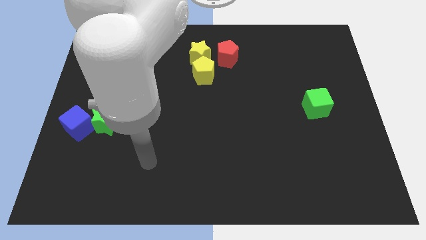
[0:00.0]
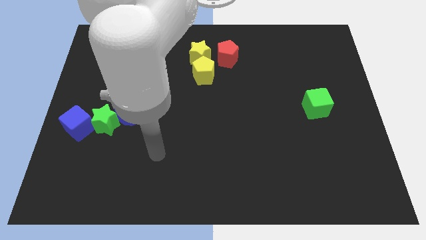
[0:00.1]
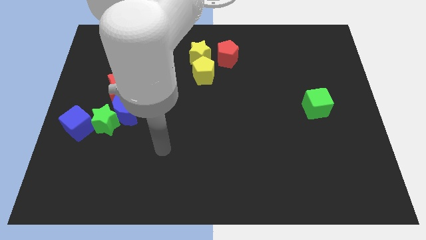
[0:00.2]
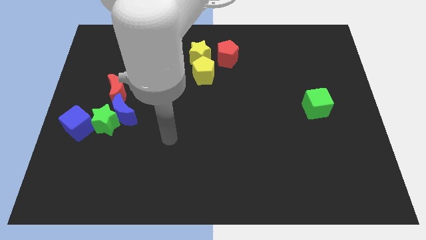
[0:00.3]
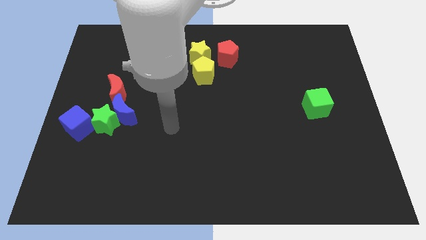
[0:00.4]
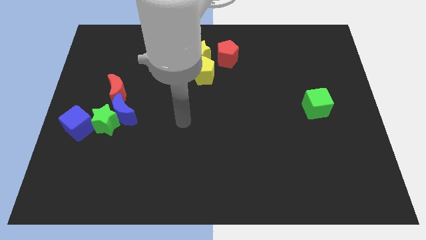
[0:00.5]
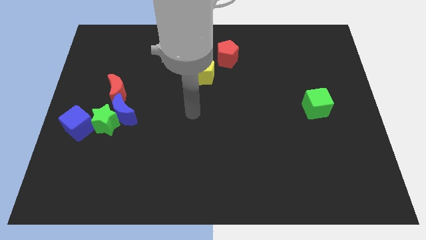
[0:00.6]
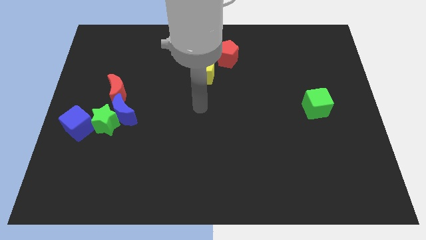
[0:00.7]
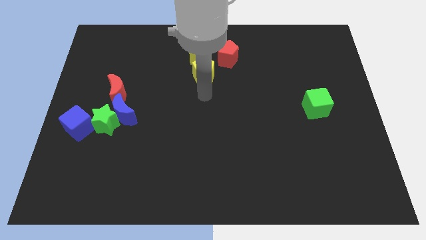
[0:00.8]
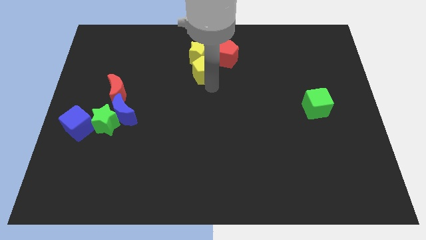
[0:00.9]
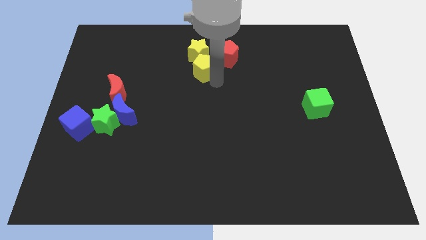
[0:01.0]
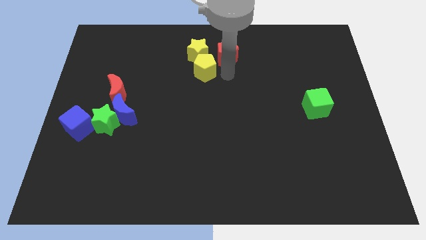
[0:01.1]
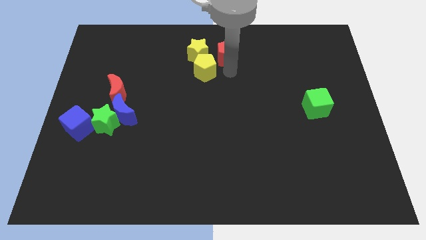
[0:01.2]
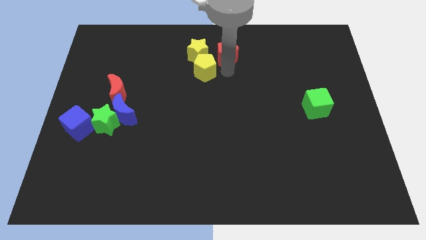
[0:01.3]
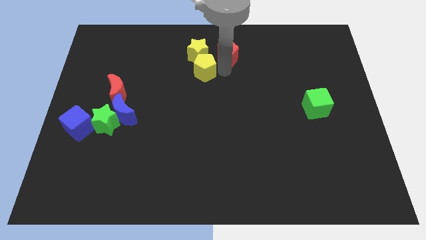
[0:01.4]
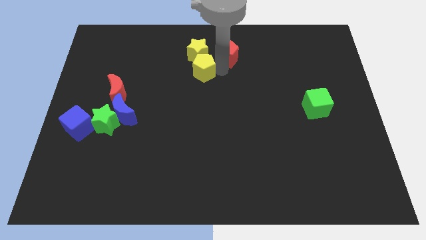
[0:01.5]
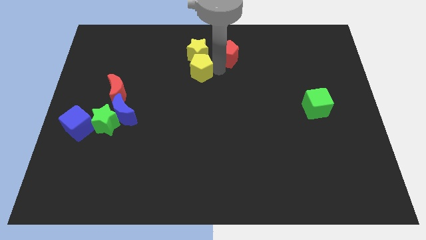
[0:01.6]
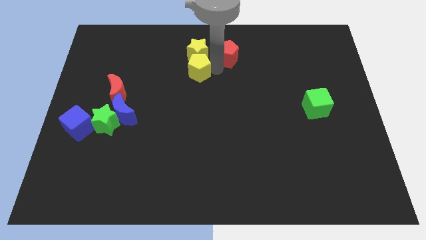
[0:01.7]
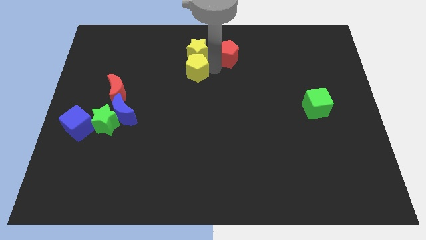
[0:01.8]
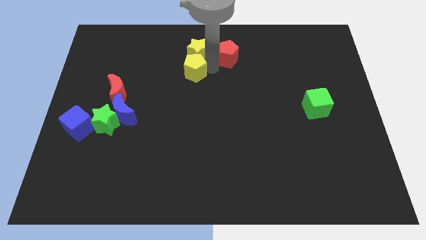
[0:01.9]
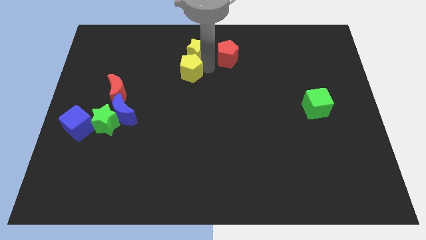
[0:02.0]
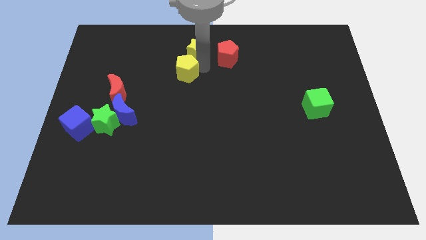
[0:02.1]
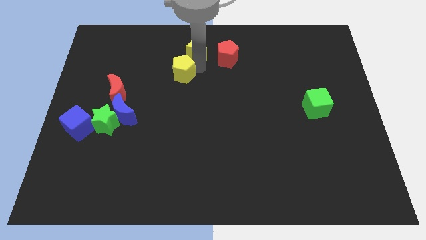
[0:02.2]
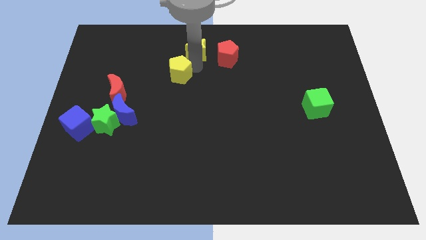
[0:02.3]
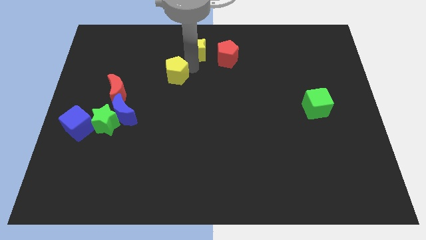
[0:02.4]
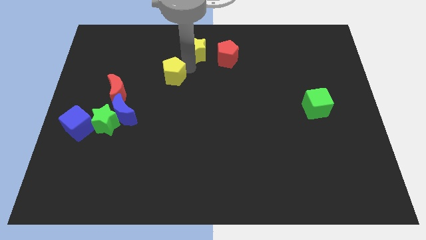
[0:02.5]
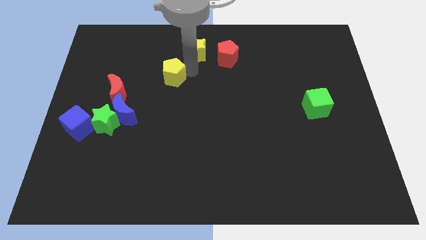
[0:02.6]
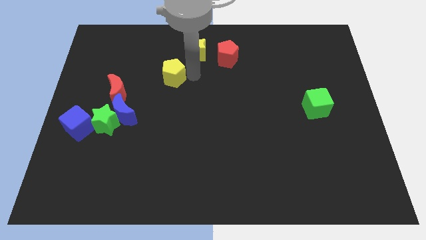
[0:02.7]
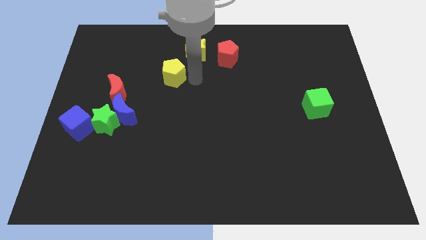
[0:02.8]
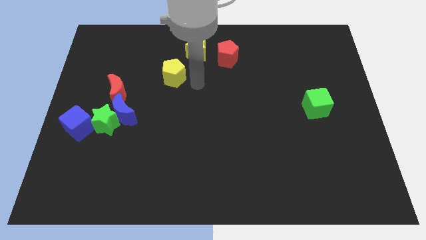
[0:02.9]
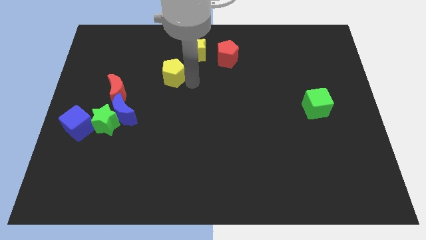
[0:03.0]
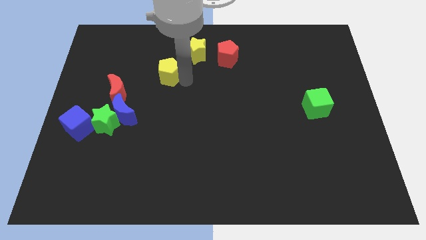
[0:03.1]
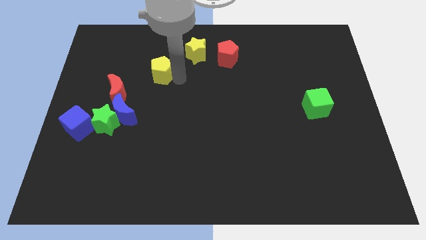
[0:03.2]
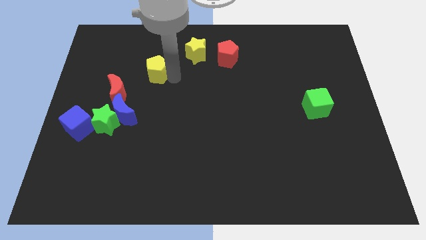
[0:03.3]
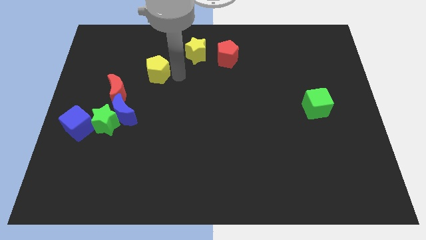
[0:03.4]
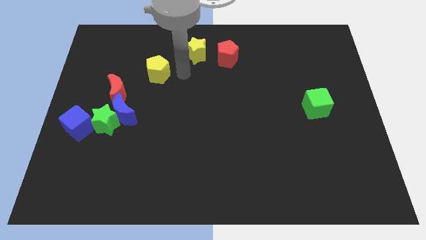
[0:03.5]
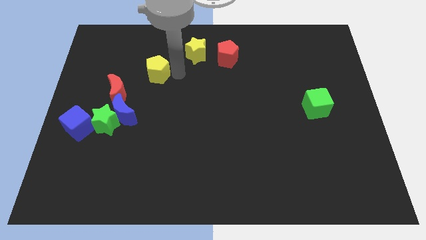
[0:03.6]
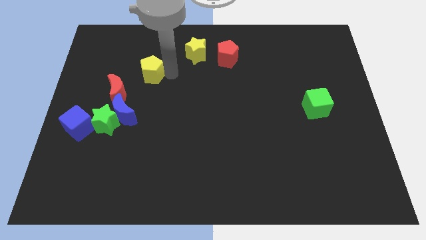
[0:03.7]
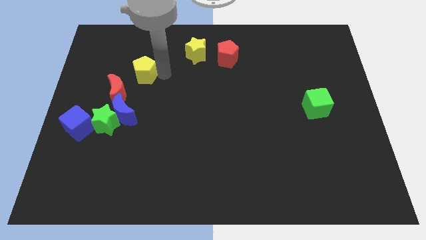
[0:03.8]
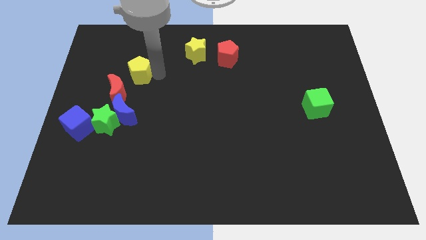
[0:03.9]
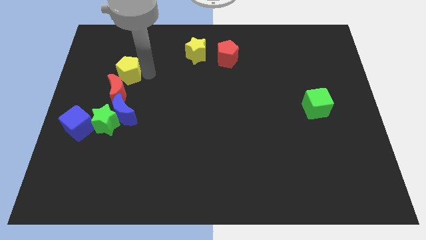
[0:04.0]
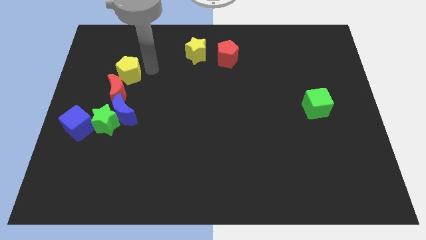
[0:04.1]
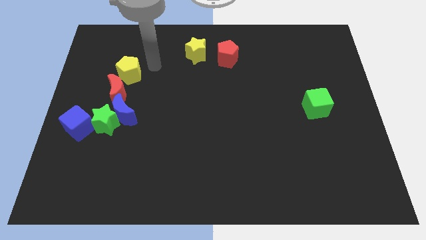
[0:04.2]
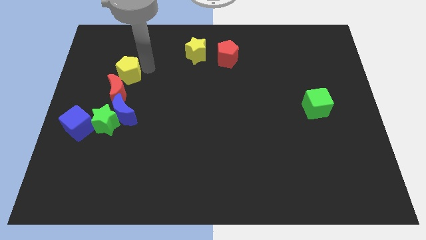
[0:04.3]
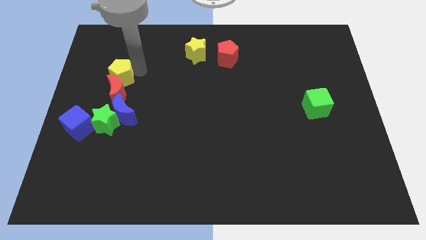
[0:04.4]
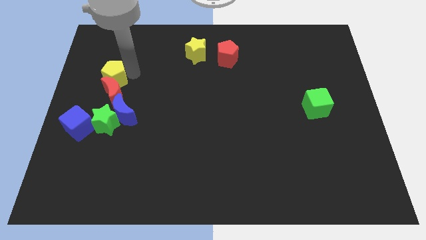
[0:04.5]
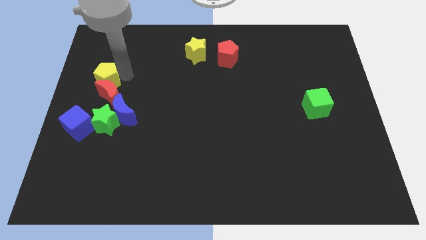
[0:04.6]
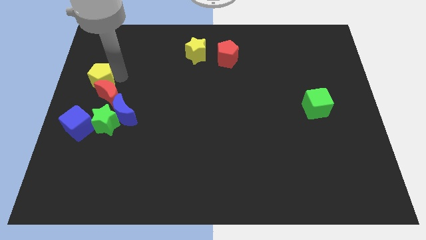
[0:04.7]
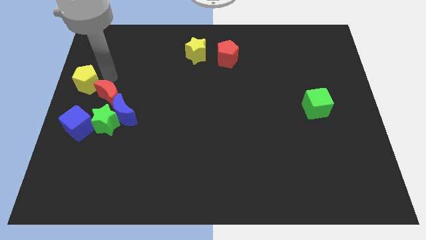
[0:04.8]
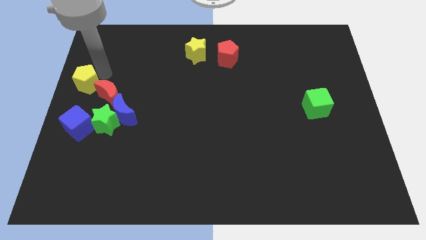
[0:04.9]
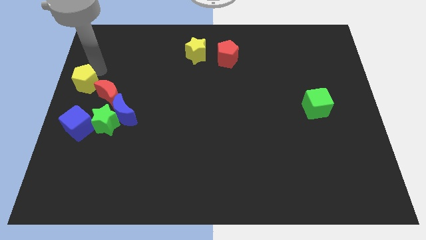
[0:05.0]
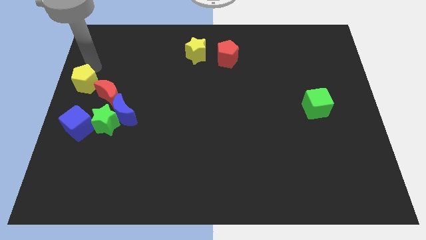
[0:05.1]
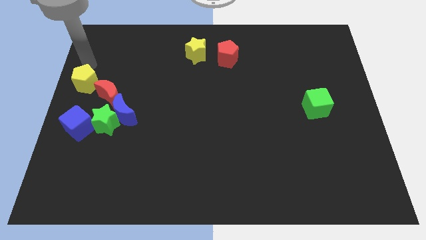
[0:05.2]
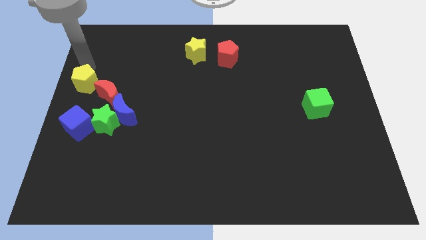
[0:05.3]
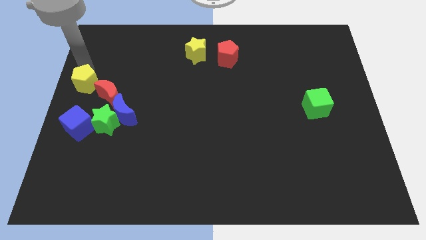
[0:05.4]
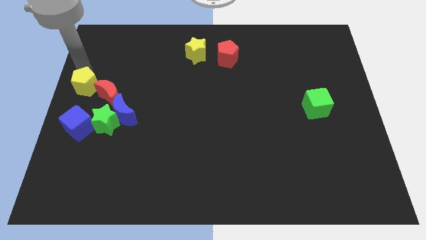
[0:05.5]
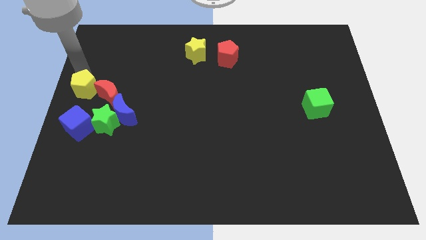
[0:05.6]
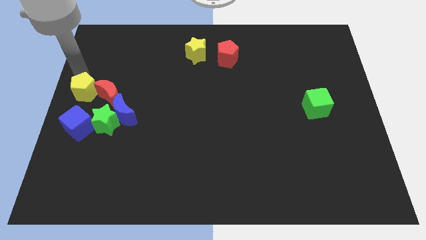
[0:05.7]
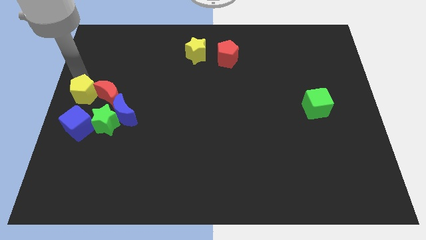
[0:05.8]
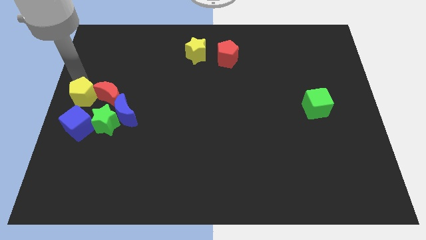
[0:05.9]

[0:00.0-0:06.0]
push the yellow pentagon to the bottom left side of the red moon

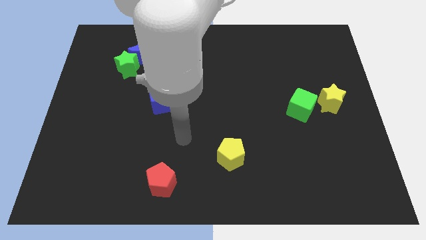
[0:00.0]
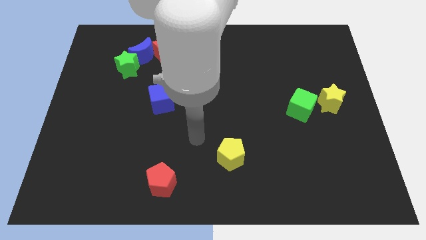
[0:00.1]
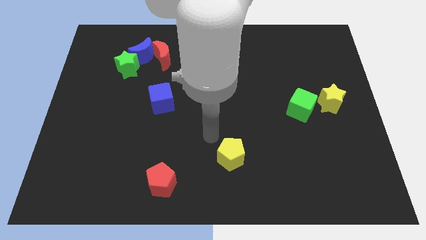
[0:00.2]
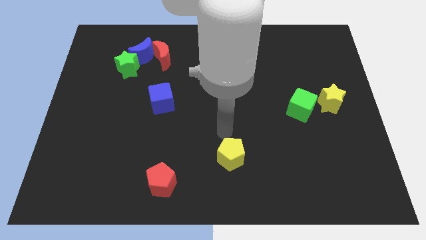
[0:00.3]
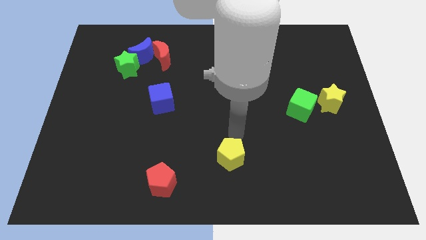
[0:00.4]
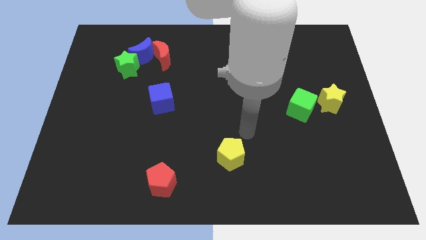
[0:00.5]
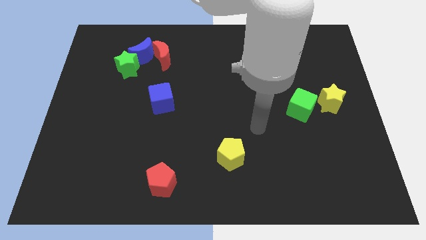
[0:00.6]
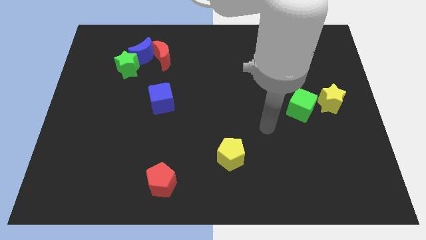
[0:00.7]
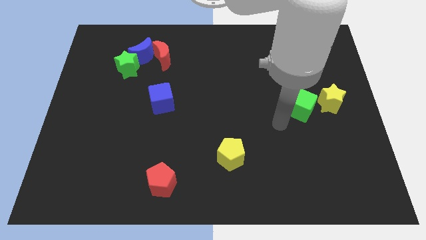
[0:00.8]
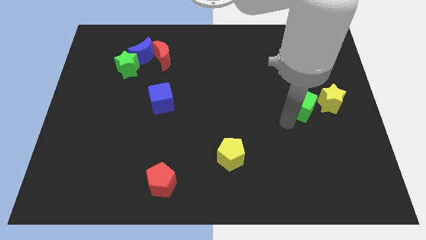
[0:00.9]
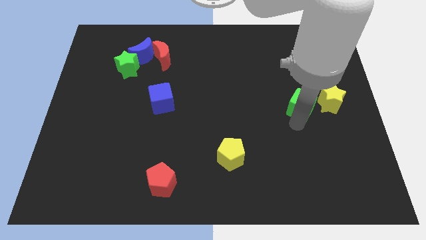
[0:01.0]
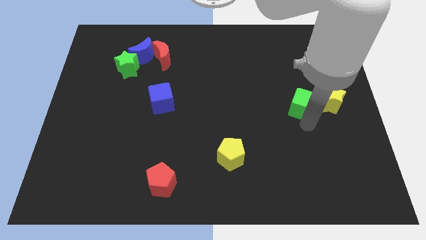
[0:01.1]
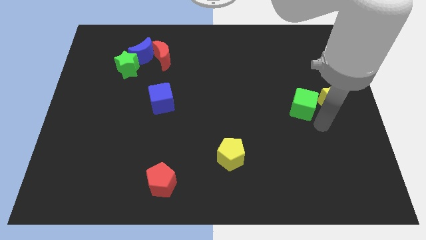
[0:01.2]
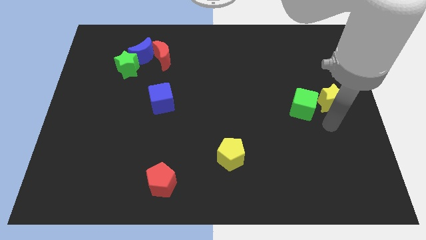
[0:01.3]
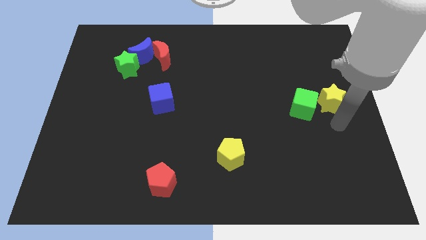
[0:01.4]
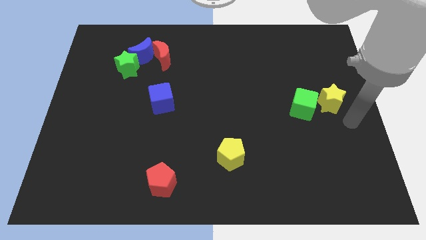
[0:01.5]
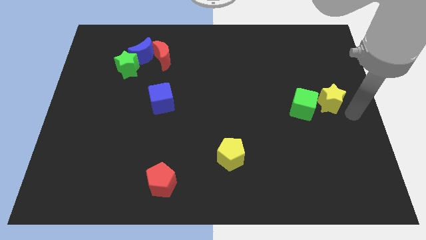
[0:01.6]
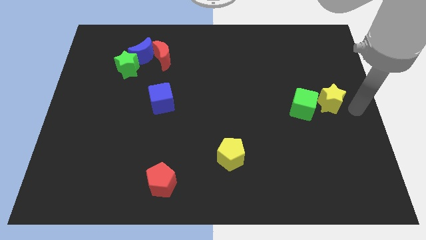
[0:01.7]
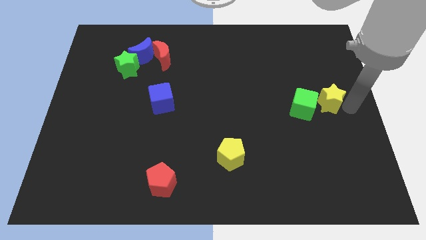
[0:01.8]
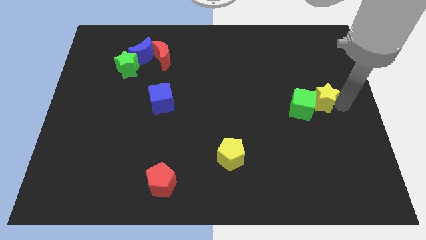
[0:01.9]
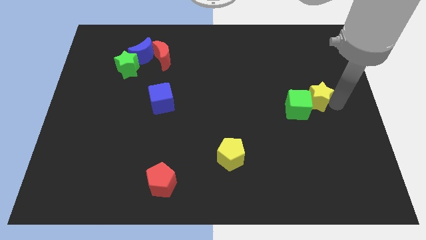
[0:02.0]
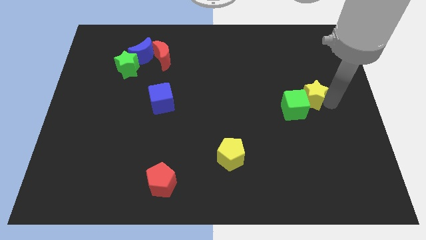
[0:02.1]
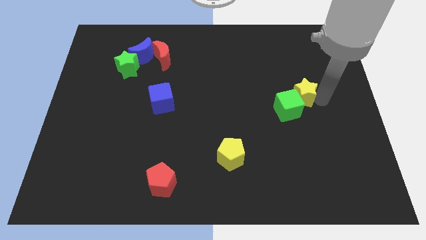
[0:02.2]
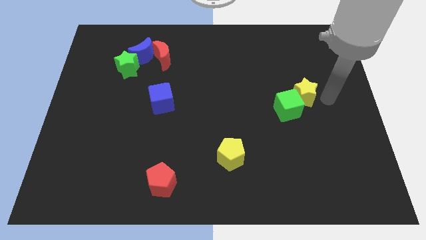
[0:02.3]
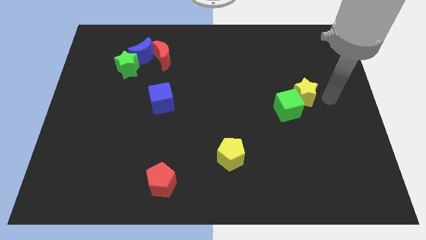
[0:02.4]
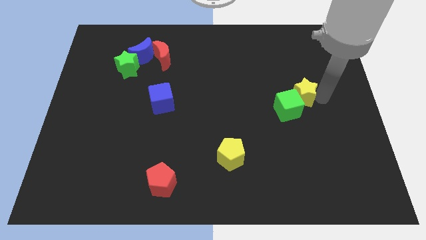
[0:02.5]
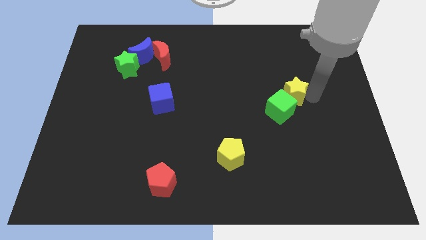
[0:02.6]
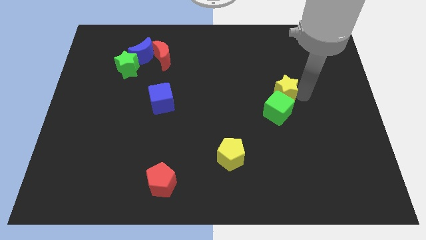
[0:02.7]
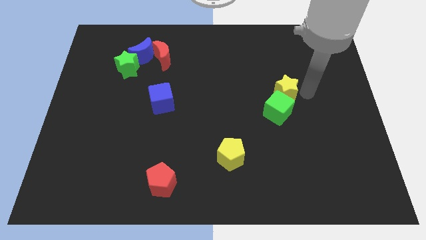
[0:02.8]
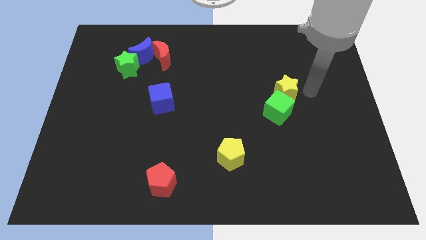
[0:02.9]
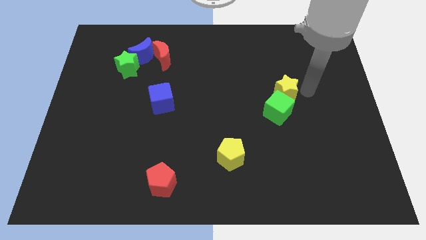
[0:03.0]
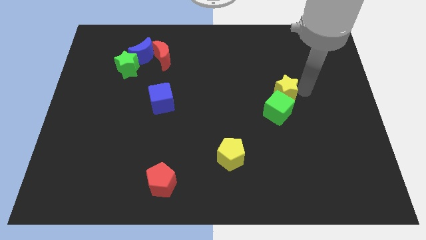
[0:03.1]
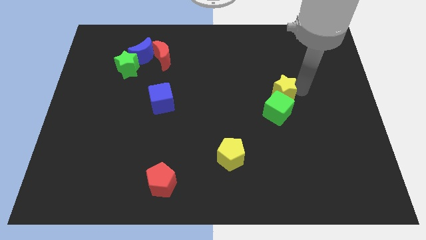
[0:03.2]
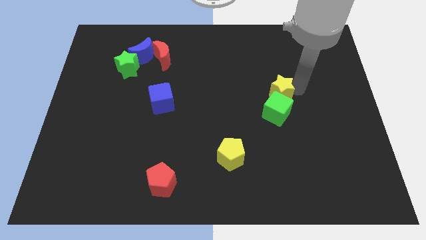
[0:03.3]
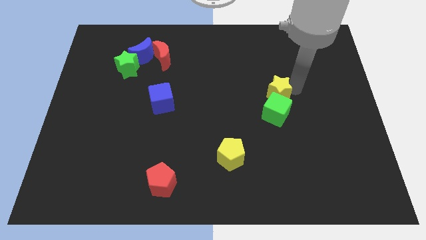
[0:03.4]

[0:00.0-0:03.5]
put the yellow star diagonally up and to the left of the green cube
